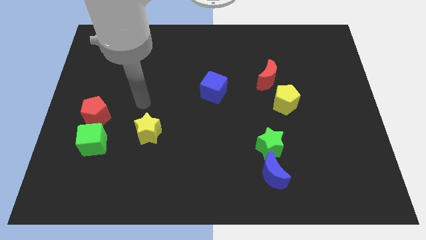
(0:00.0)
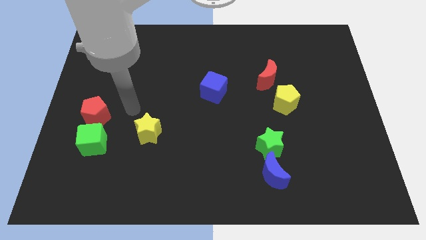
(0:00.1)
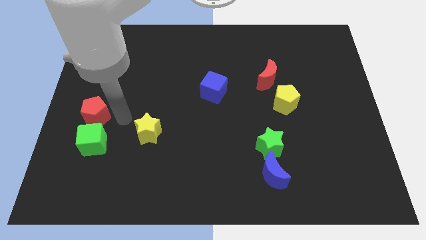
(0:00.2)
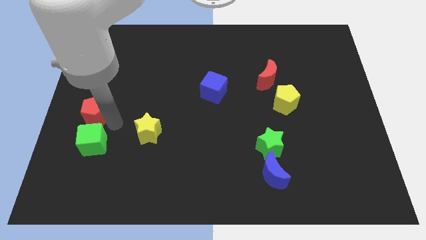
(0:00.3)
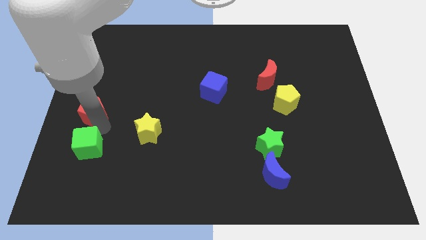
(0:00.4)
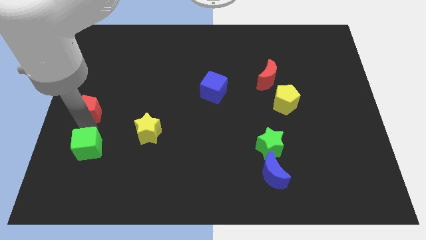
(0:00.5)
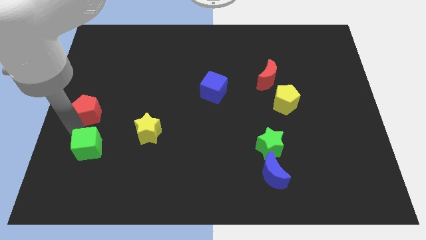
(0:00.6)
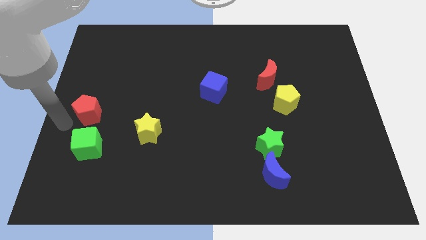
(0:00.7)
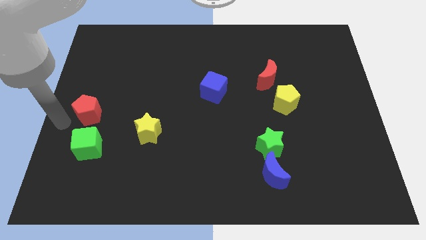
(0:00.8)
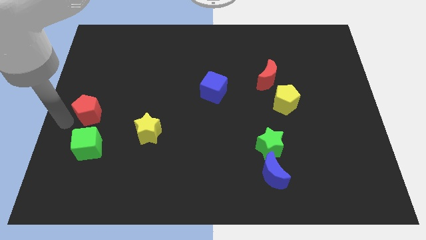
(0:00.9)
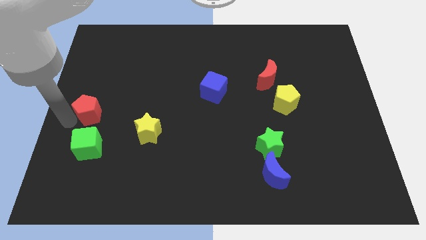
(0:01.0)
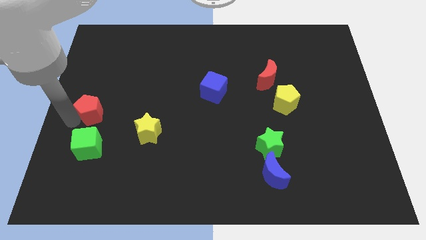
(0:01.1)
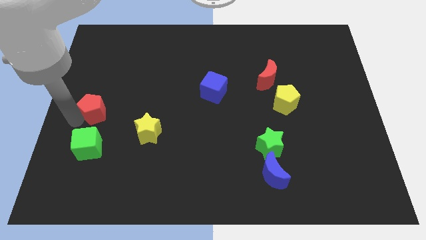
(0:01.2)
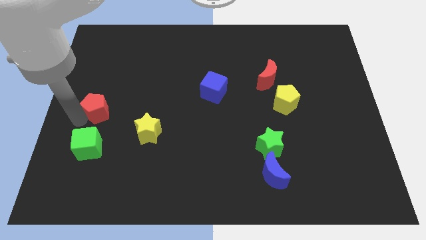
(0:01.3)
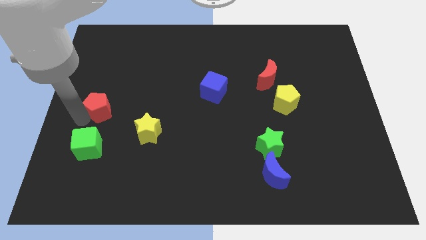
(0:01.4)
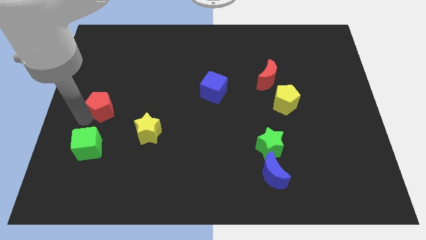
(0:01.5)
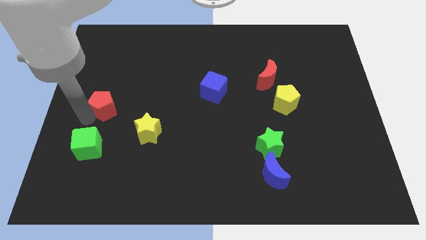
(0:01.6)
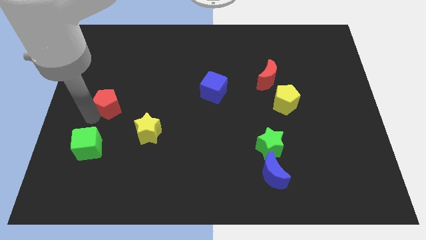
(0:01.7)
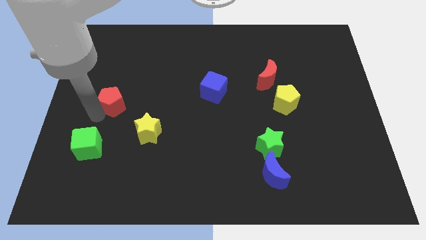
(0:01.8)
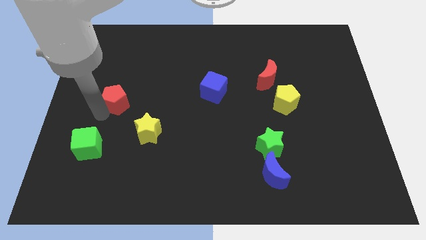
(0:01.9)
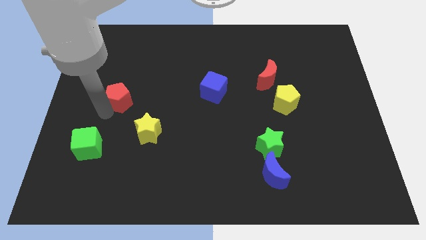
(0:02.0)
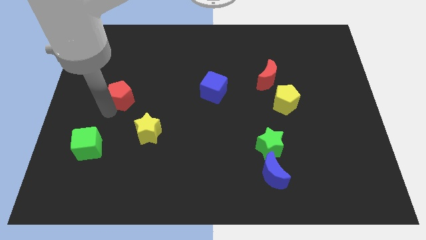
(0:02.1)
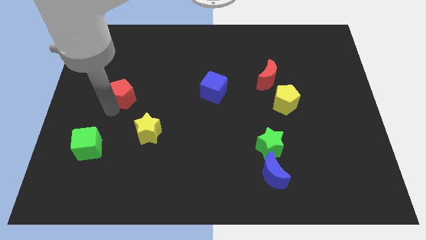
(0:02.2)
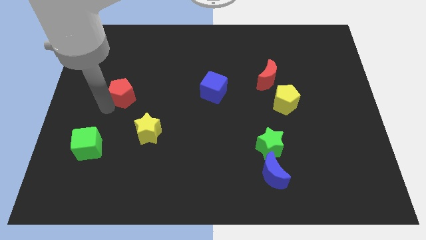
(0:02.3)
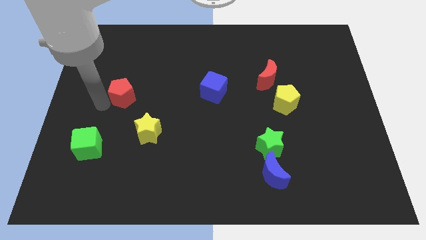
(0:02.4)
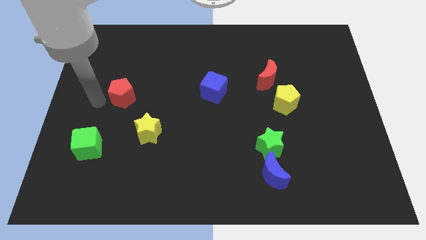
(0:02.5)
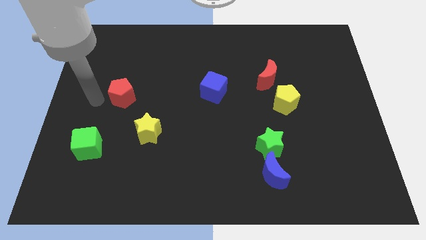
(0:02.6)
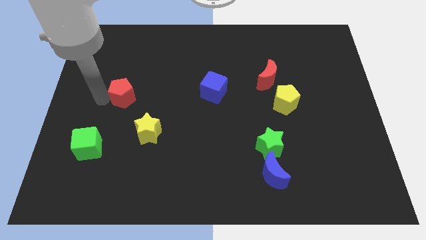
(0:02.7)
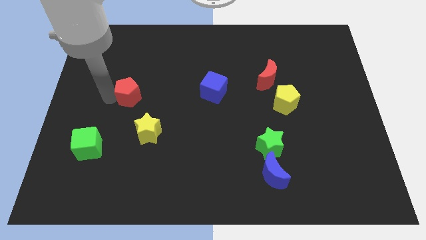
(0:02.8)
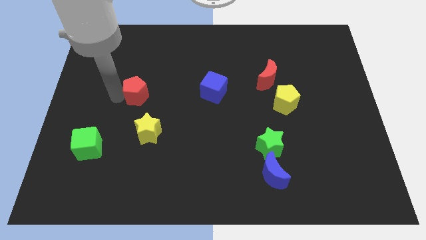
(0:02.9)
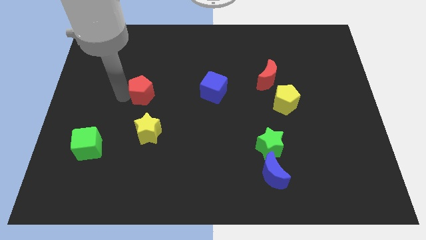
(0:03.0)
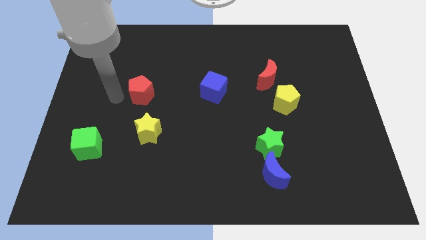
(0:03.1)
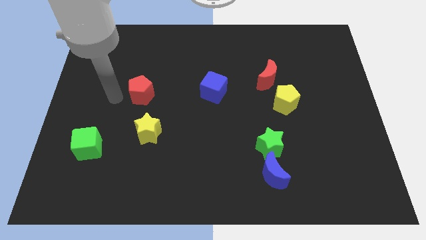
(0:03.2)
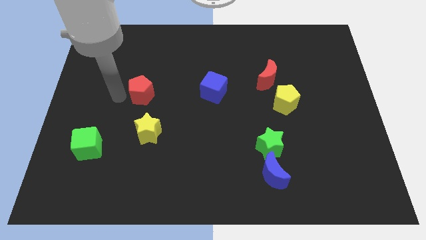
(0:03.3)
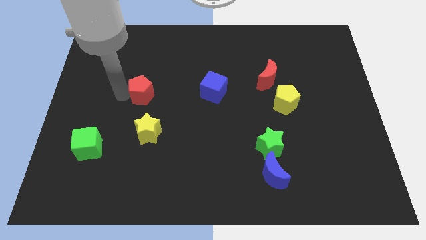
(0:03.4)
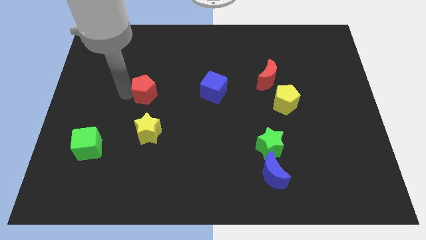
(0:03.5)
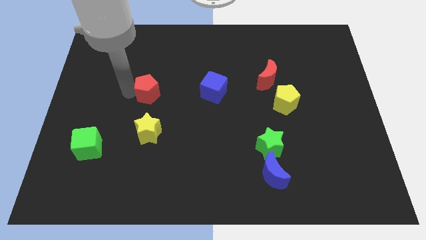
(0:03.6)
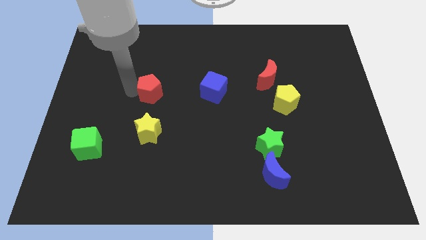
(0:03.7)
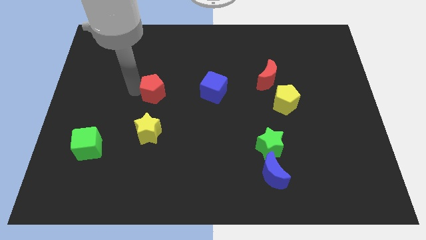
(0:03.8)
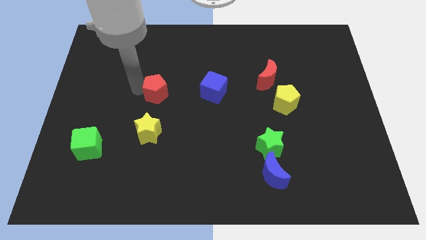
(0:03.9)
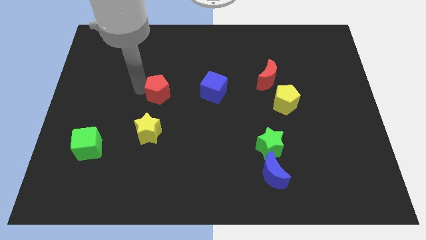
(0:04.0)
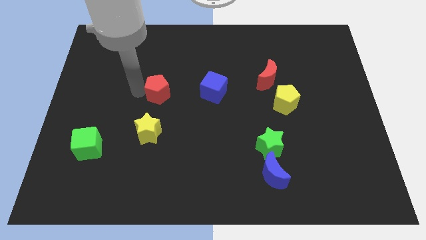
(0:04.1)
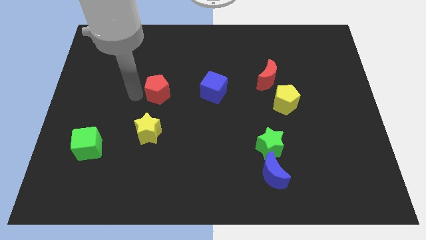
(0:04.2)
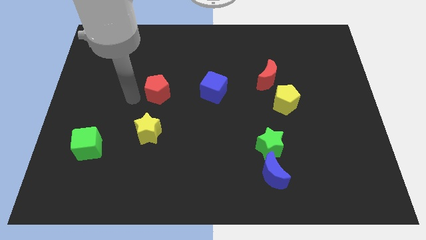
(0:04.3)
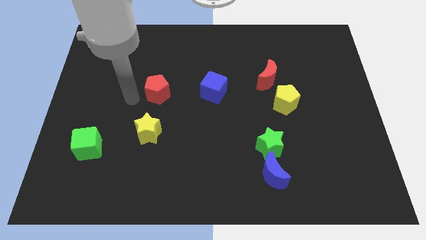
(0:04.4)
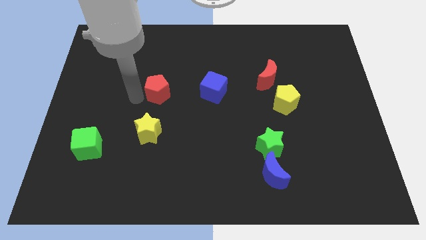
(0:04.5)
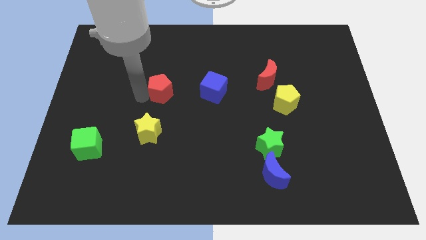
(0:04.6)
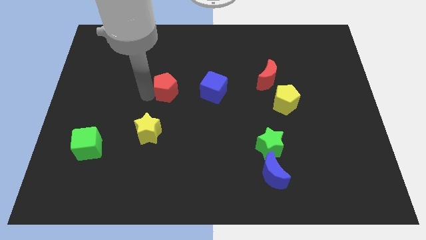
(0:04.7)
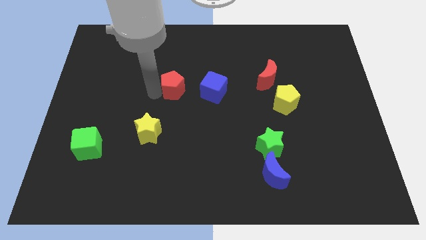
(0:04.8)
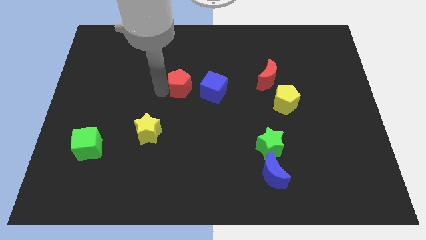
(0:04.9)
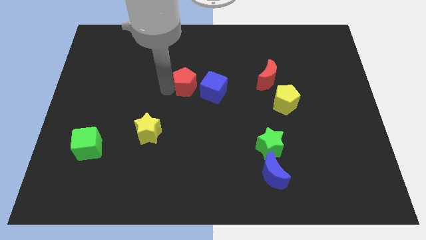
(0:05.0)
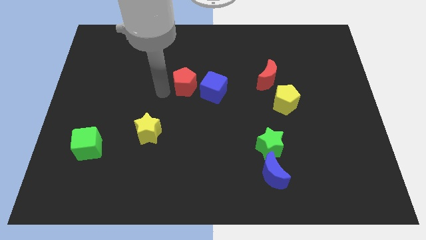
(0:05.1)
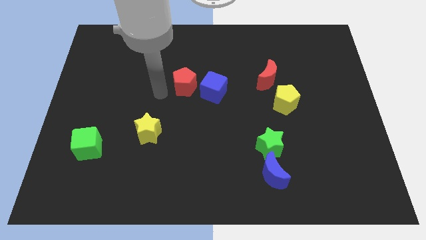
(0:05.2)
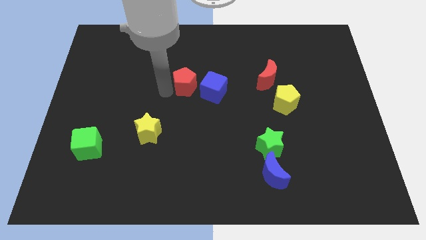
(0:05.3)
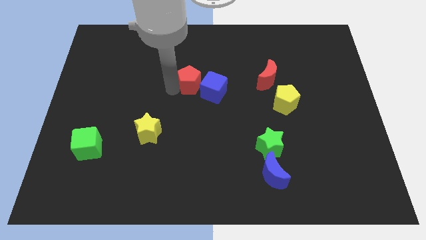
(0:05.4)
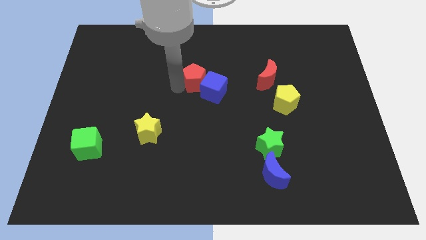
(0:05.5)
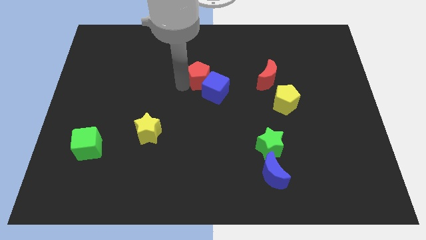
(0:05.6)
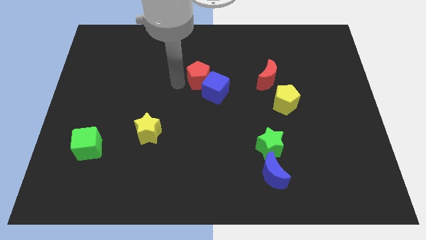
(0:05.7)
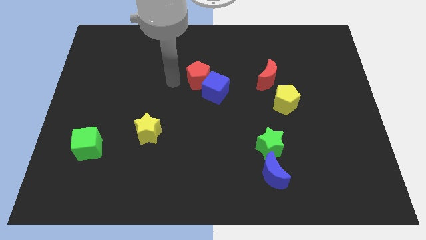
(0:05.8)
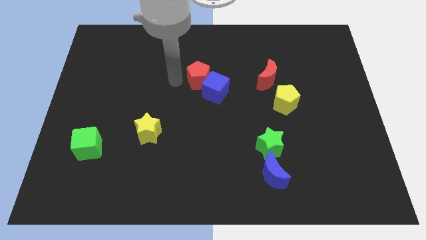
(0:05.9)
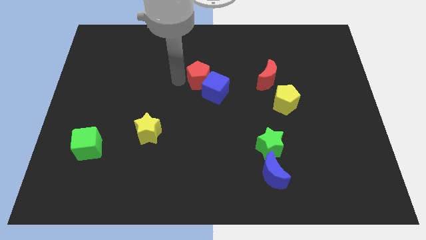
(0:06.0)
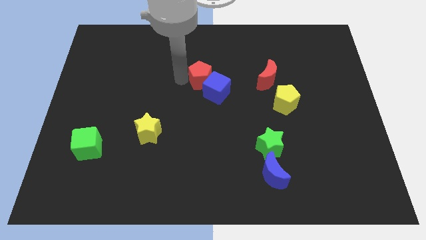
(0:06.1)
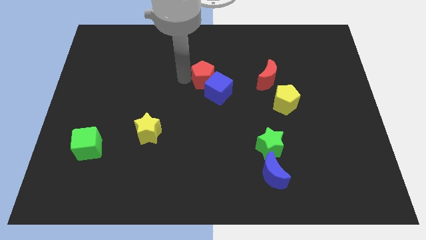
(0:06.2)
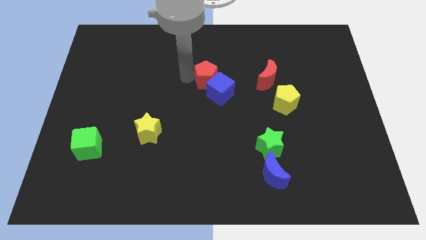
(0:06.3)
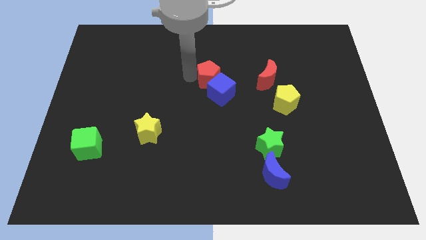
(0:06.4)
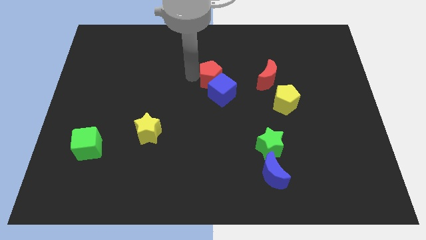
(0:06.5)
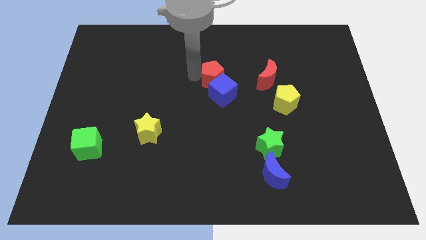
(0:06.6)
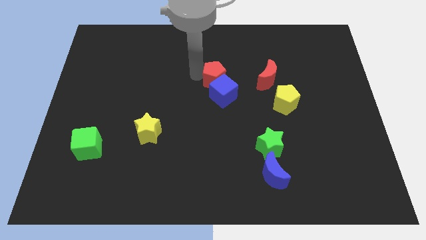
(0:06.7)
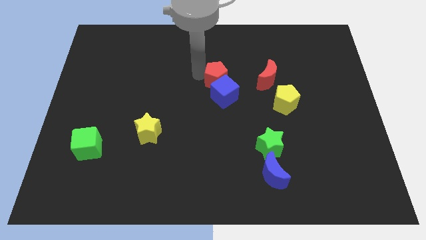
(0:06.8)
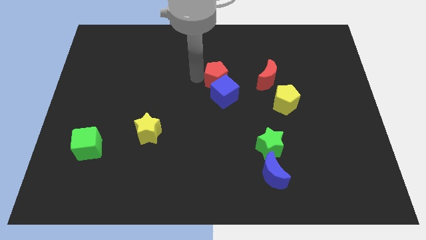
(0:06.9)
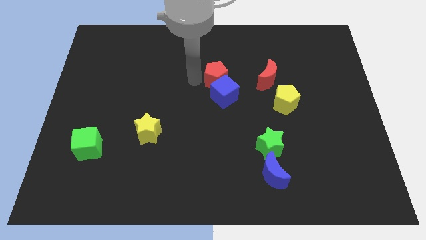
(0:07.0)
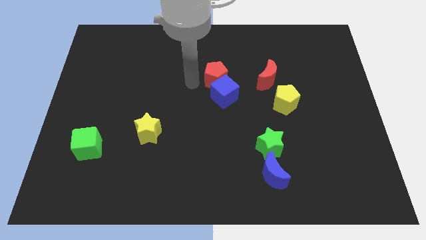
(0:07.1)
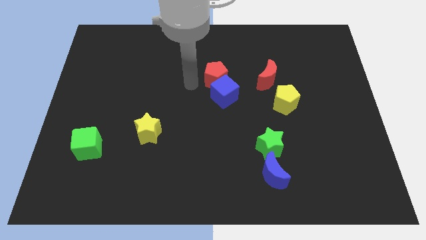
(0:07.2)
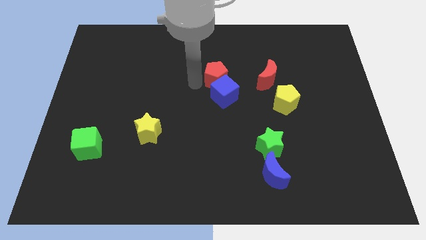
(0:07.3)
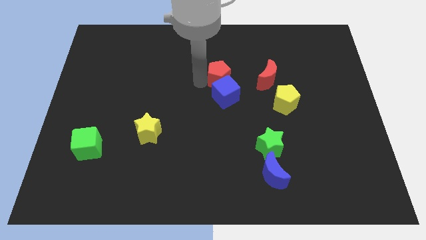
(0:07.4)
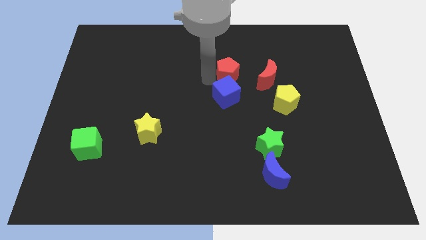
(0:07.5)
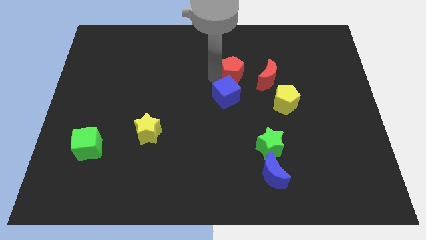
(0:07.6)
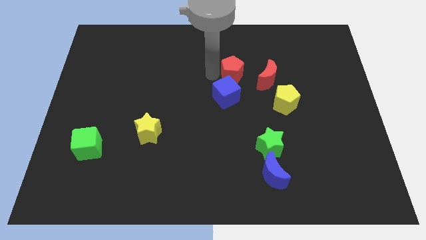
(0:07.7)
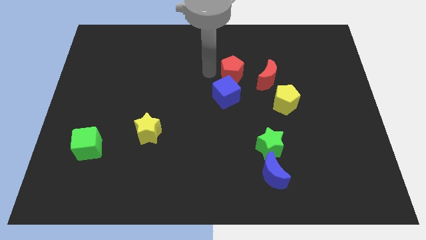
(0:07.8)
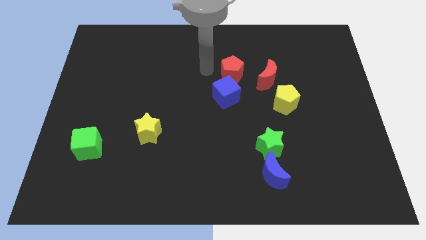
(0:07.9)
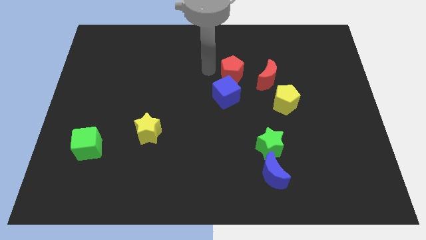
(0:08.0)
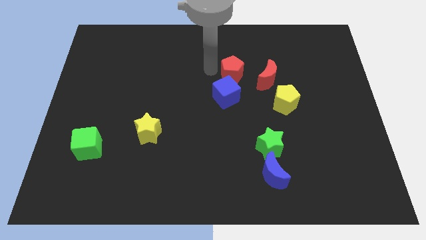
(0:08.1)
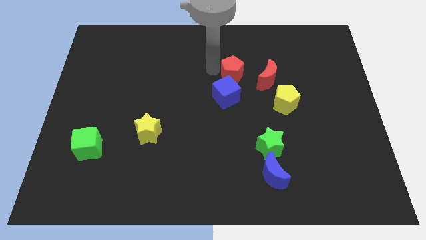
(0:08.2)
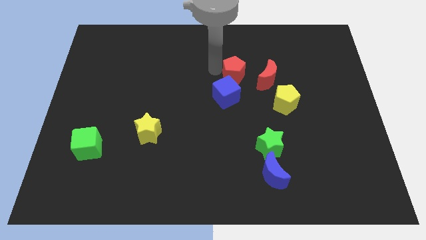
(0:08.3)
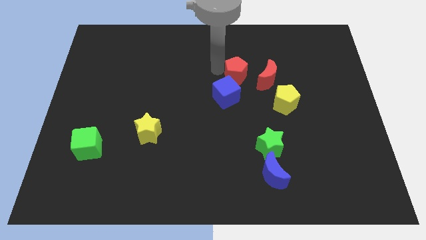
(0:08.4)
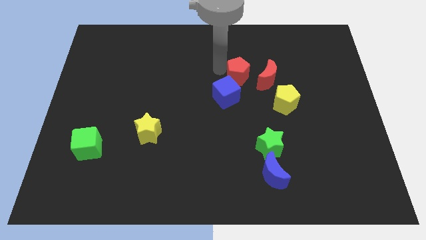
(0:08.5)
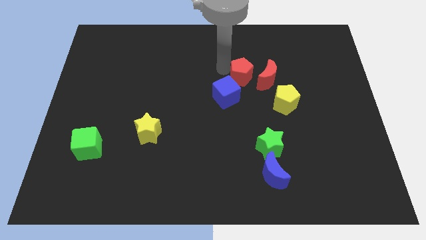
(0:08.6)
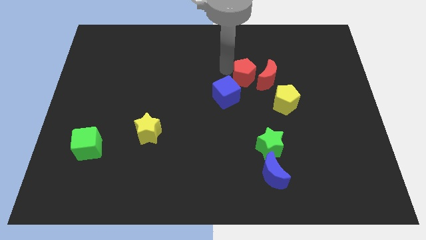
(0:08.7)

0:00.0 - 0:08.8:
put the red pentagon next to the red moon
